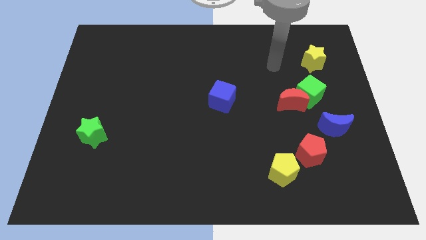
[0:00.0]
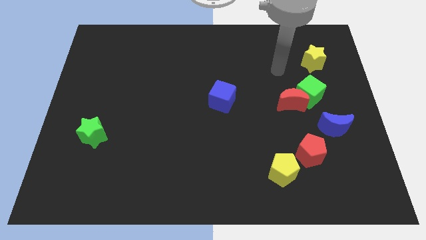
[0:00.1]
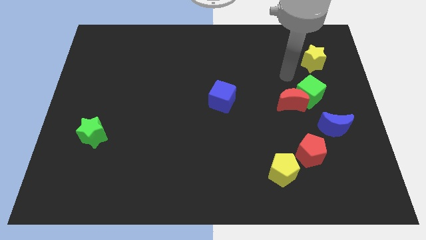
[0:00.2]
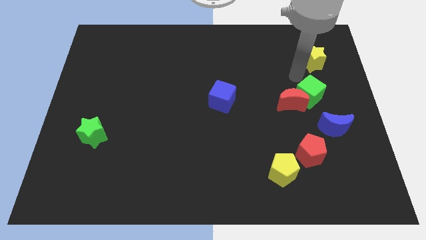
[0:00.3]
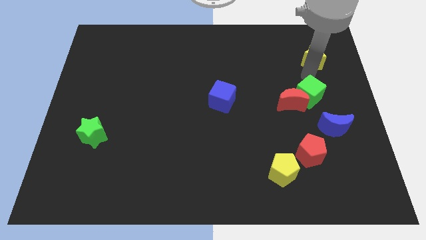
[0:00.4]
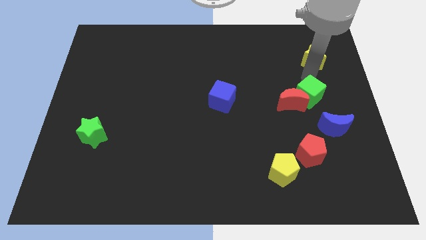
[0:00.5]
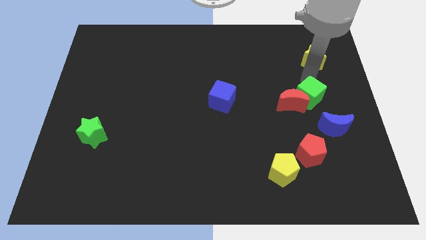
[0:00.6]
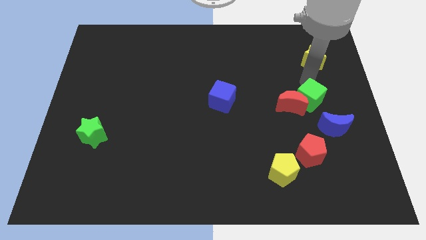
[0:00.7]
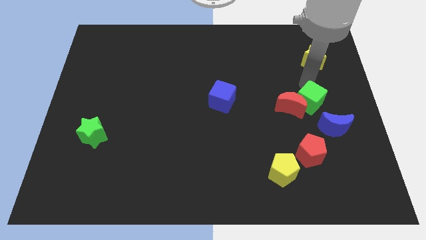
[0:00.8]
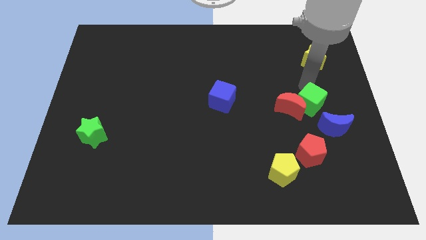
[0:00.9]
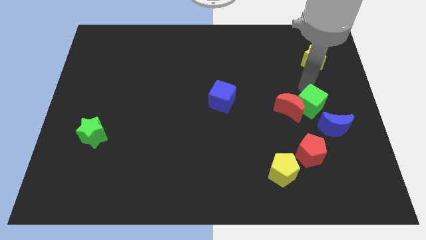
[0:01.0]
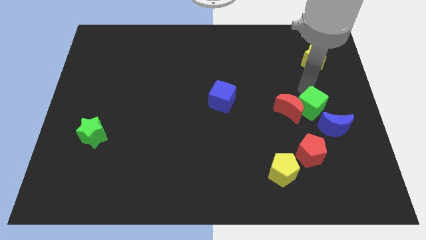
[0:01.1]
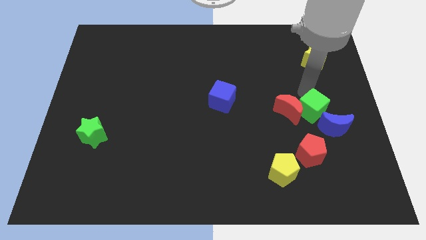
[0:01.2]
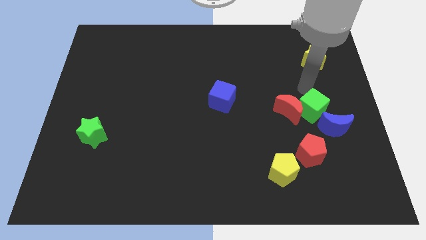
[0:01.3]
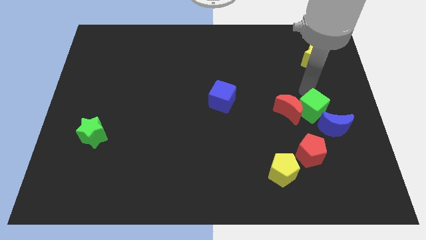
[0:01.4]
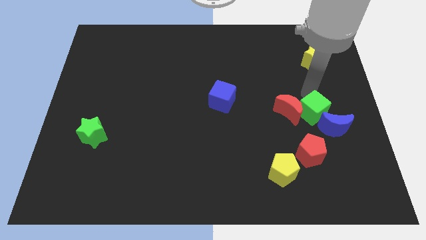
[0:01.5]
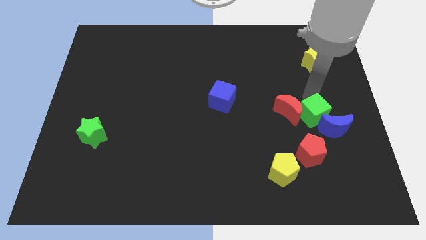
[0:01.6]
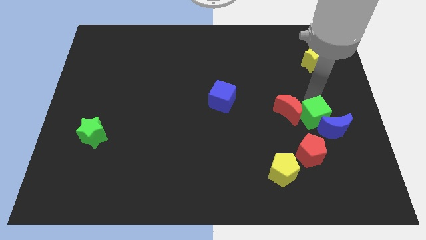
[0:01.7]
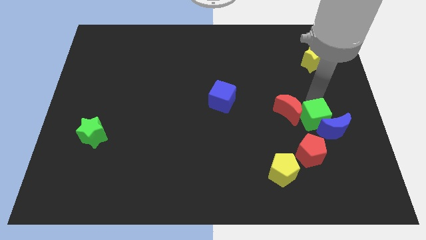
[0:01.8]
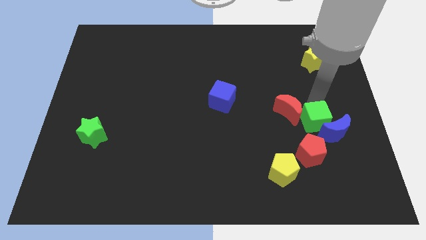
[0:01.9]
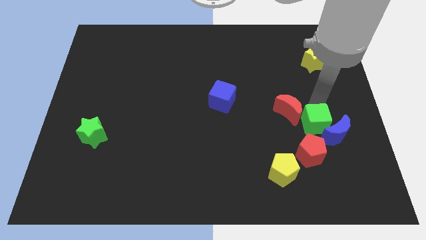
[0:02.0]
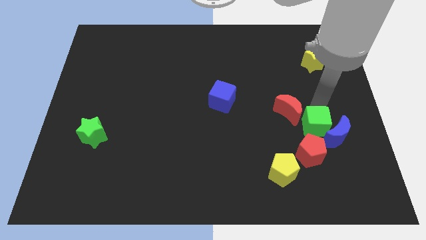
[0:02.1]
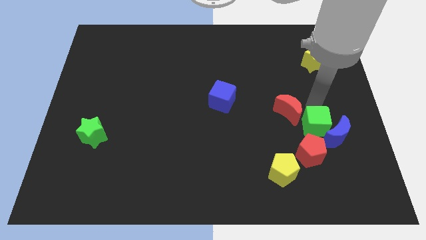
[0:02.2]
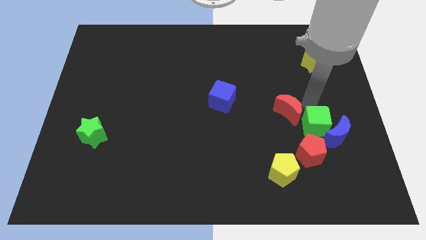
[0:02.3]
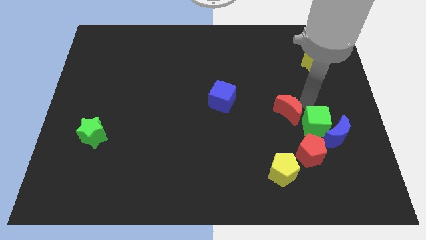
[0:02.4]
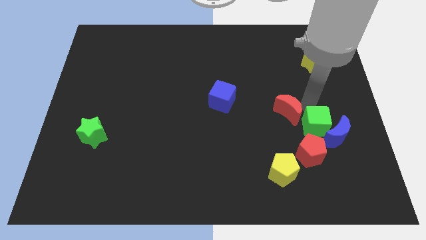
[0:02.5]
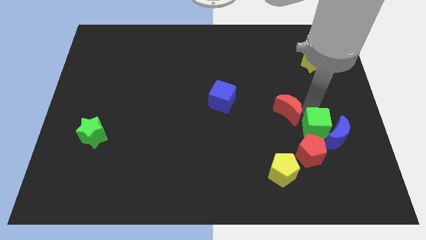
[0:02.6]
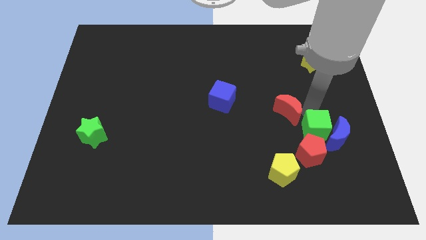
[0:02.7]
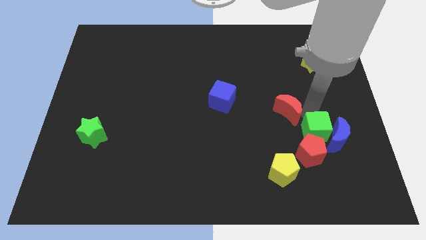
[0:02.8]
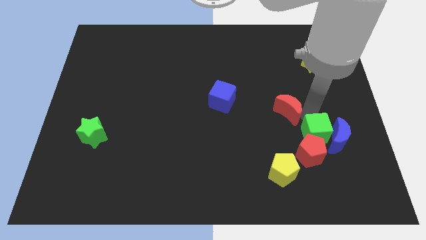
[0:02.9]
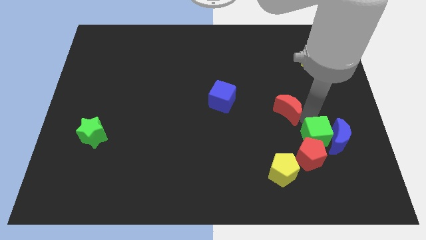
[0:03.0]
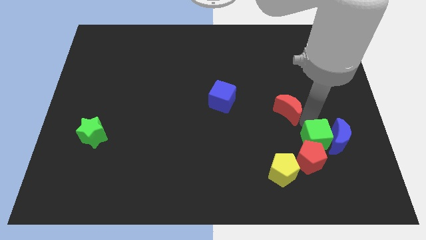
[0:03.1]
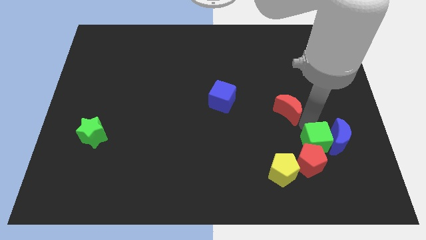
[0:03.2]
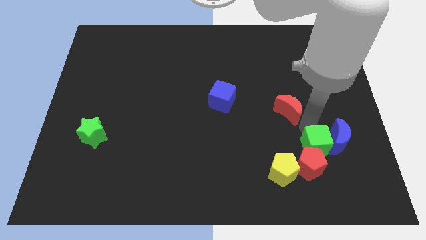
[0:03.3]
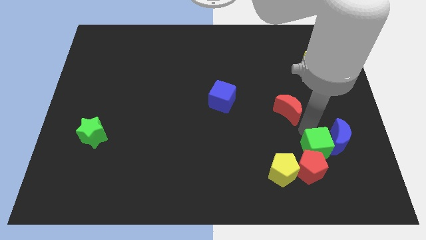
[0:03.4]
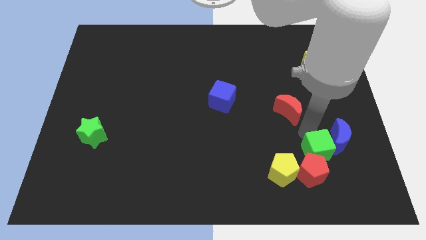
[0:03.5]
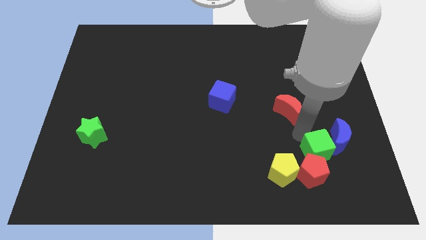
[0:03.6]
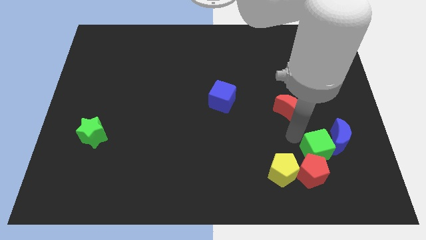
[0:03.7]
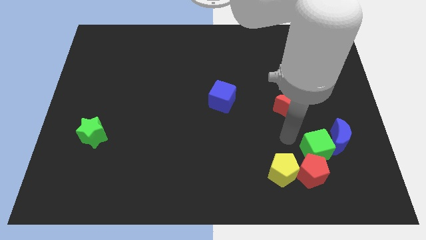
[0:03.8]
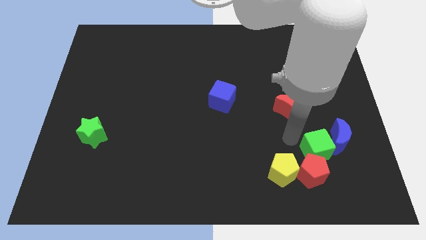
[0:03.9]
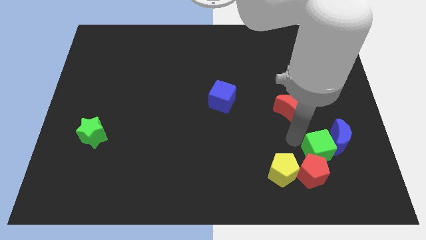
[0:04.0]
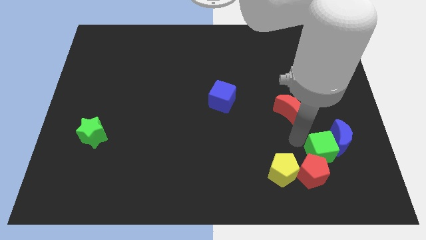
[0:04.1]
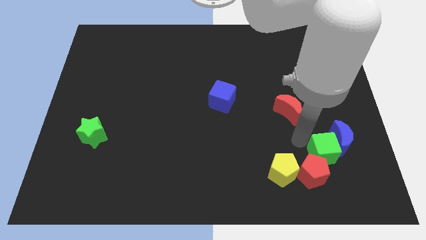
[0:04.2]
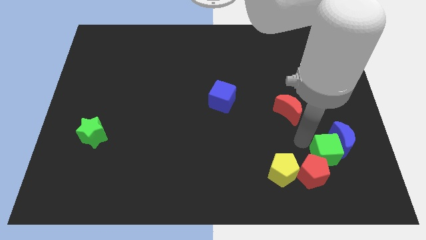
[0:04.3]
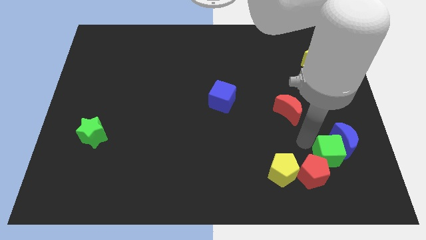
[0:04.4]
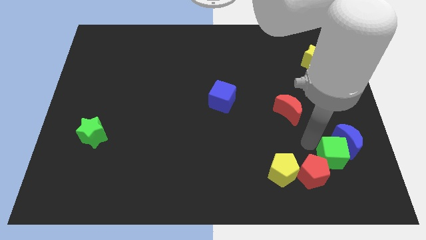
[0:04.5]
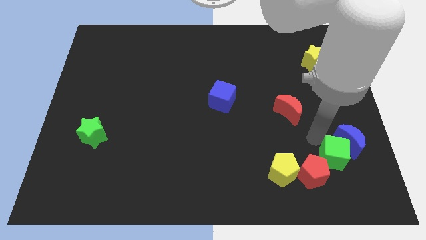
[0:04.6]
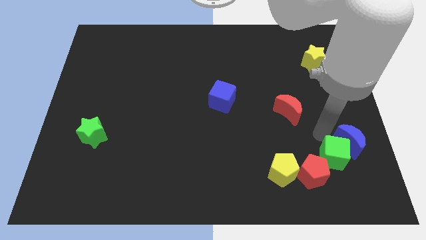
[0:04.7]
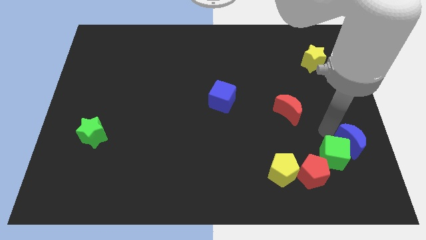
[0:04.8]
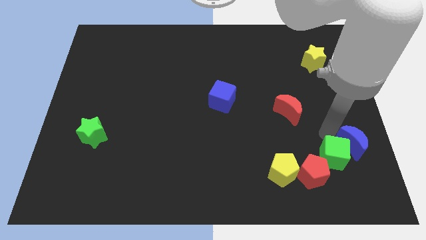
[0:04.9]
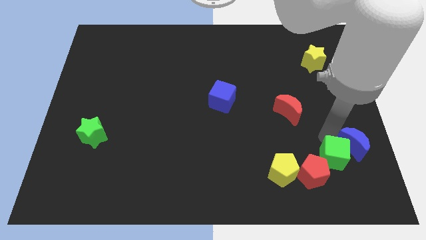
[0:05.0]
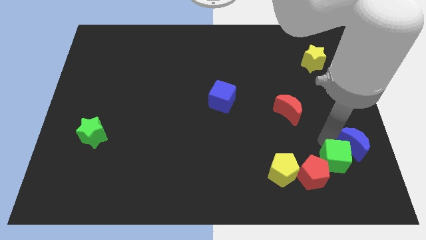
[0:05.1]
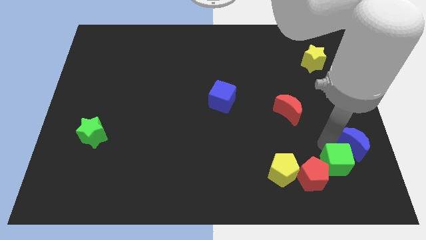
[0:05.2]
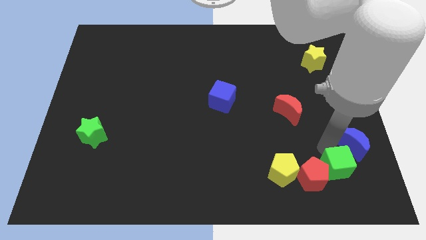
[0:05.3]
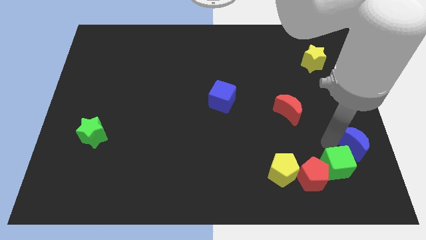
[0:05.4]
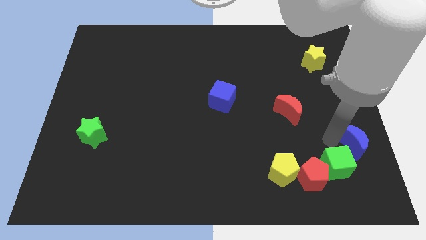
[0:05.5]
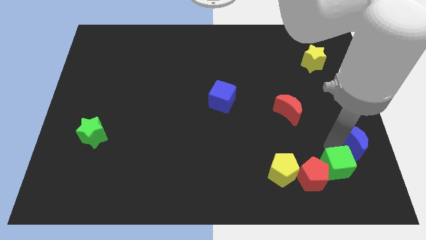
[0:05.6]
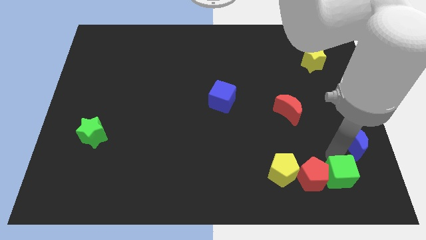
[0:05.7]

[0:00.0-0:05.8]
slide the green cube to the bottom right side of the red pentagon

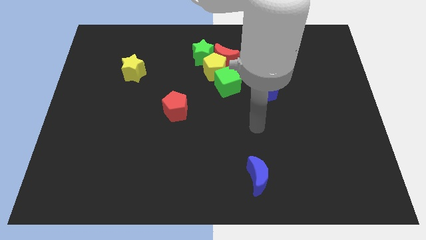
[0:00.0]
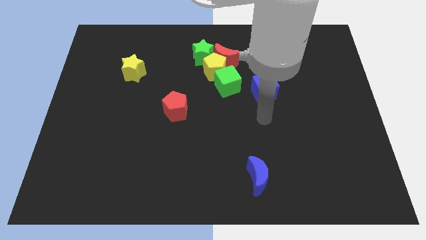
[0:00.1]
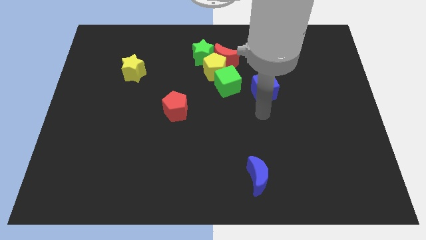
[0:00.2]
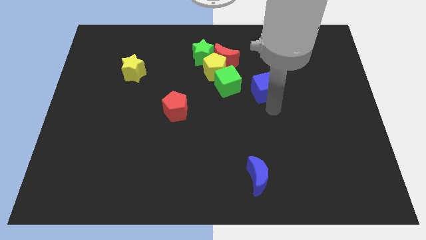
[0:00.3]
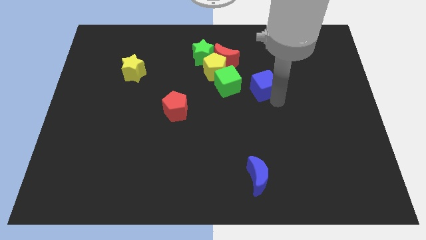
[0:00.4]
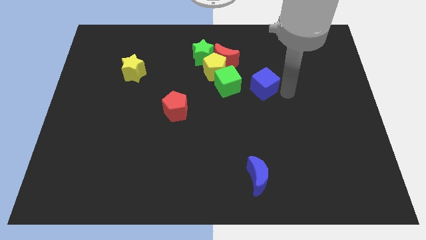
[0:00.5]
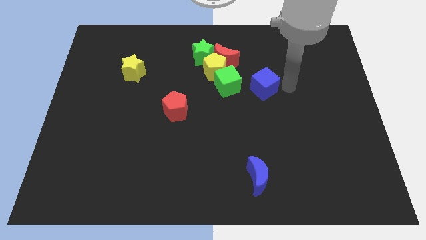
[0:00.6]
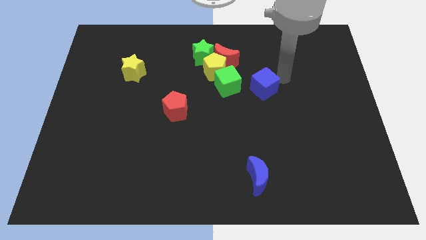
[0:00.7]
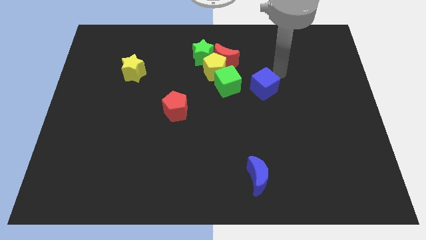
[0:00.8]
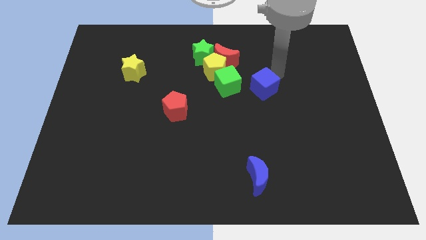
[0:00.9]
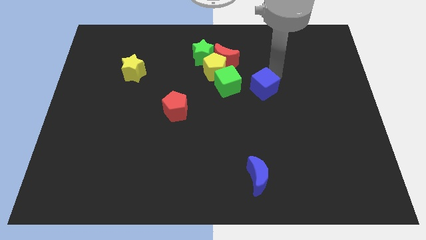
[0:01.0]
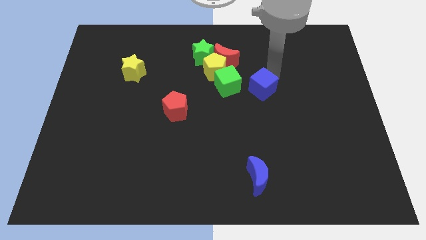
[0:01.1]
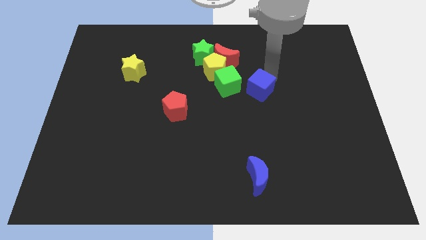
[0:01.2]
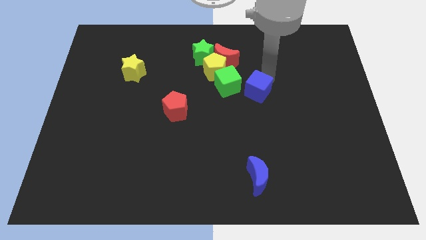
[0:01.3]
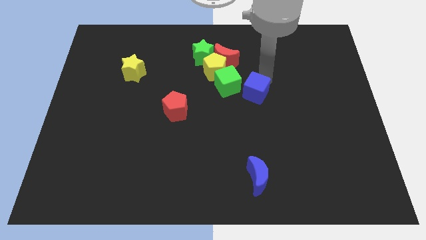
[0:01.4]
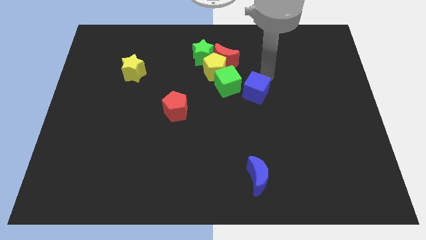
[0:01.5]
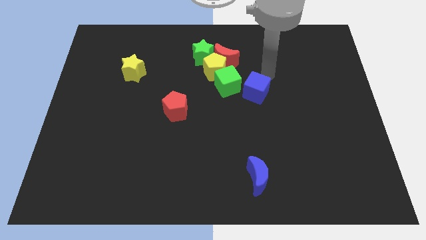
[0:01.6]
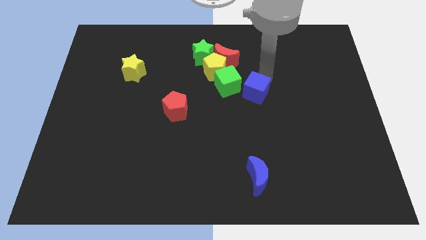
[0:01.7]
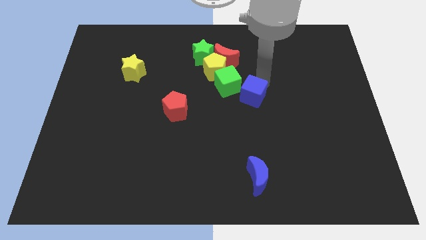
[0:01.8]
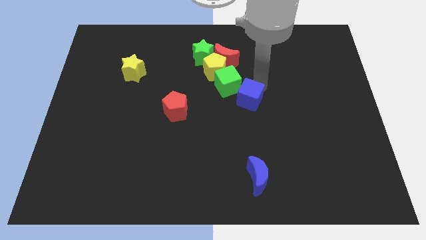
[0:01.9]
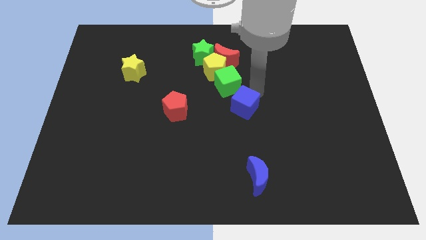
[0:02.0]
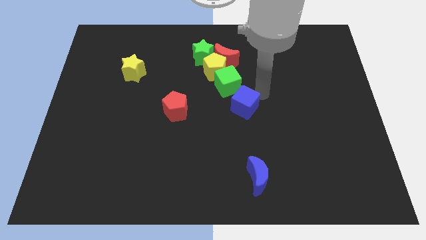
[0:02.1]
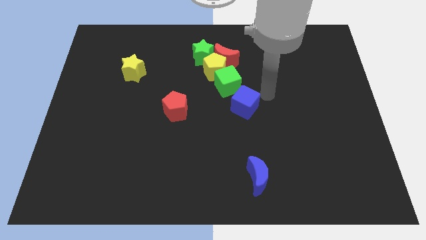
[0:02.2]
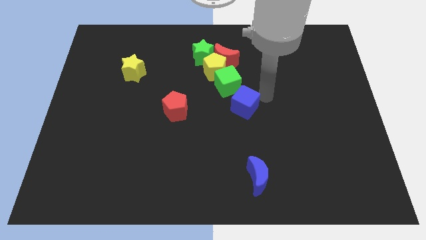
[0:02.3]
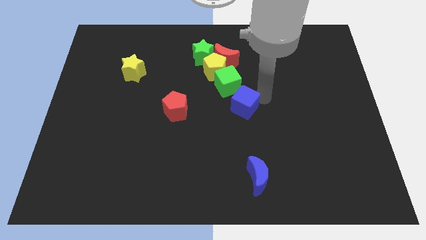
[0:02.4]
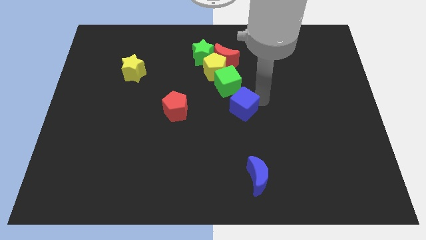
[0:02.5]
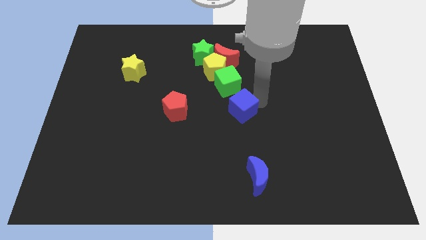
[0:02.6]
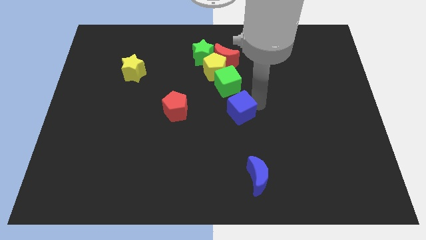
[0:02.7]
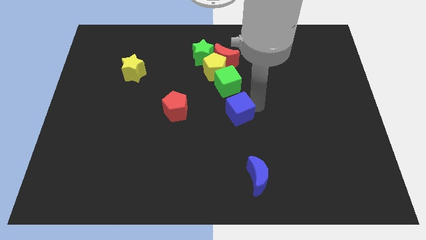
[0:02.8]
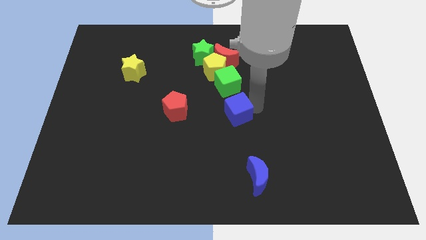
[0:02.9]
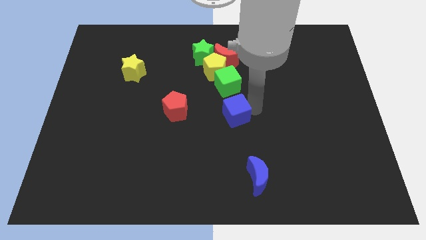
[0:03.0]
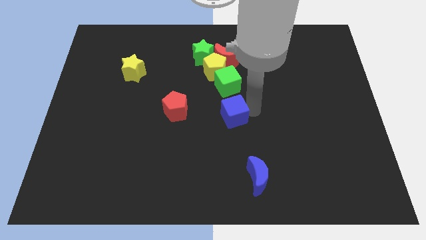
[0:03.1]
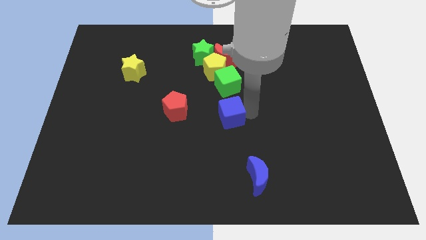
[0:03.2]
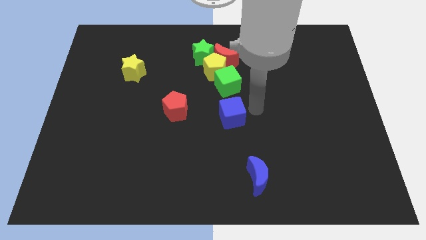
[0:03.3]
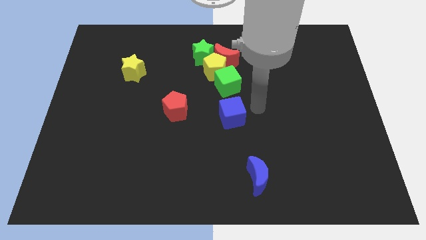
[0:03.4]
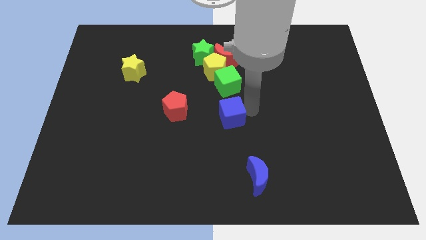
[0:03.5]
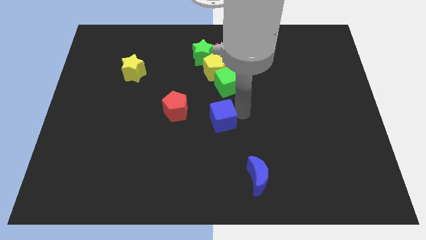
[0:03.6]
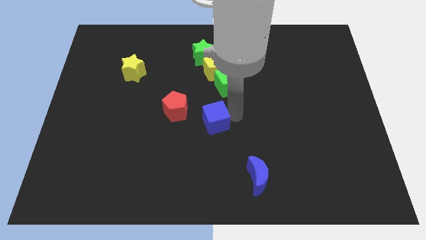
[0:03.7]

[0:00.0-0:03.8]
slide the blue cube to the bottom right of the red pentagon
